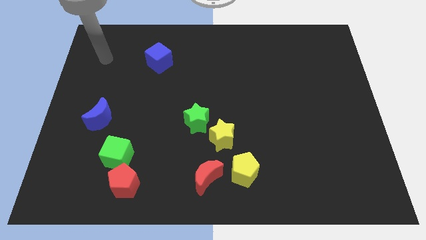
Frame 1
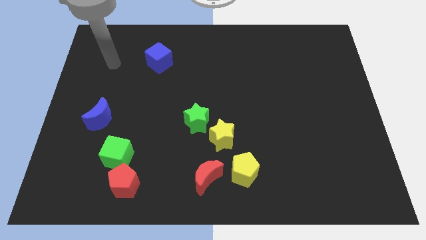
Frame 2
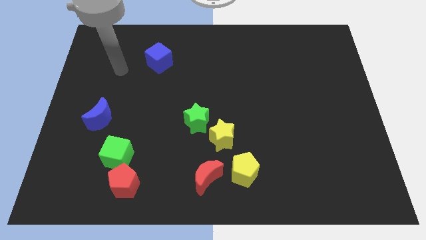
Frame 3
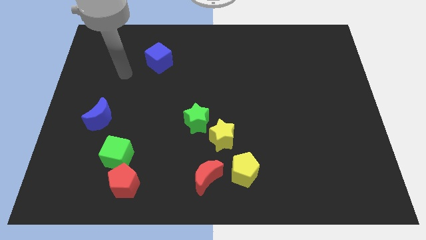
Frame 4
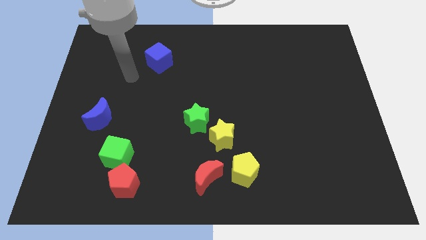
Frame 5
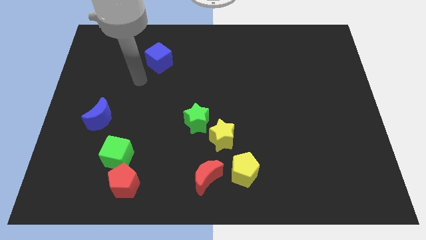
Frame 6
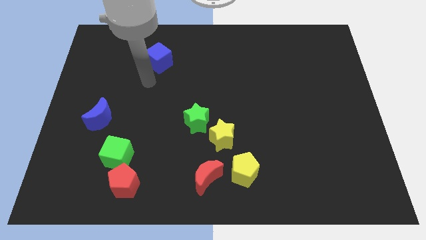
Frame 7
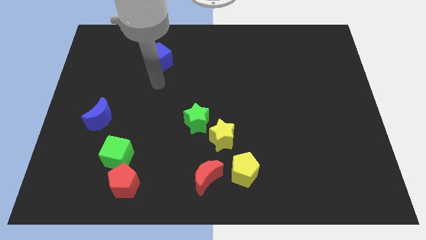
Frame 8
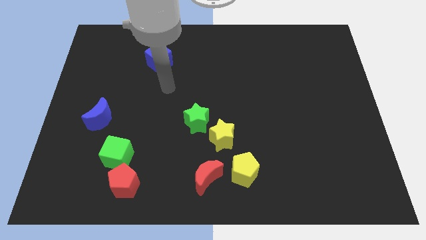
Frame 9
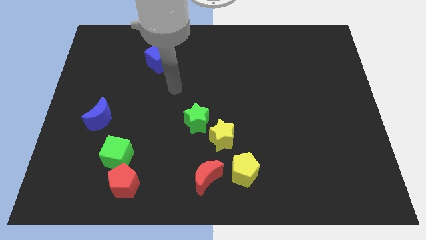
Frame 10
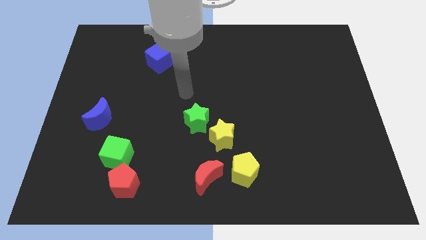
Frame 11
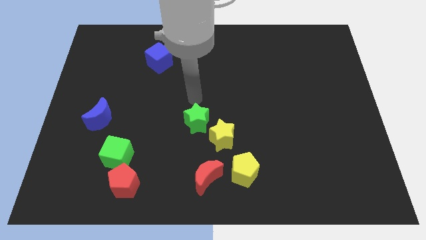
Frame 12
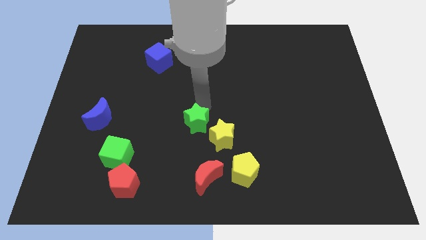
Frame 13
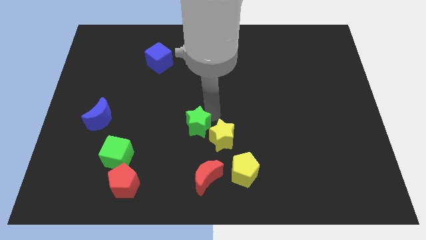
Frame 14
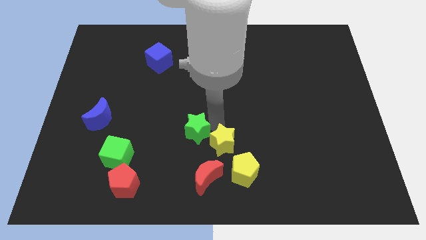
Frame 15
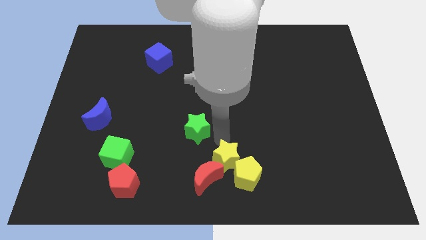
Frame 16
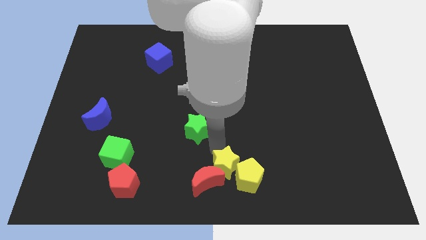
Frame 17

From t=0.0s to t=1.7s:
move the green star away from the yellow star

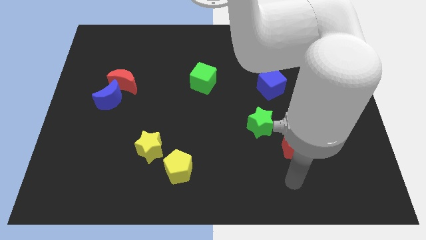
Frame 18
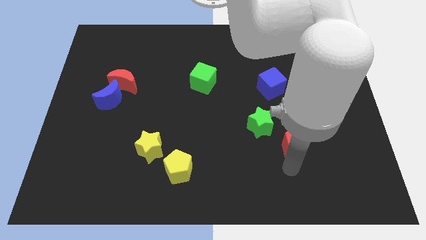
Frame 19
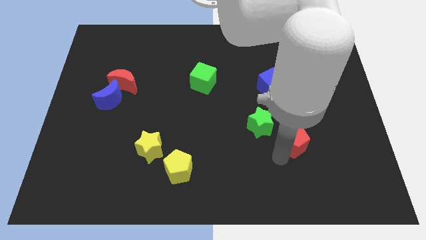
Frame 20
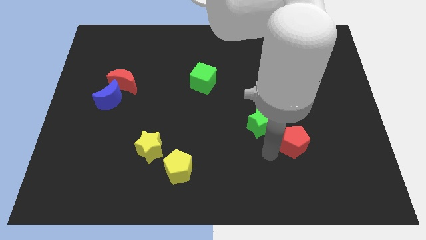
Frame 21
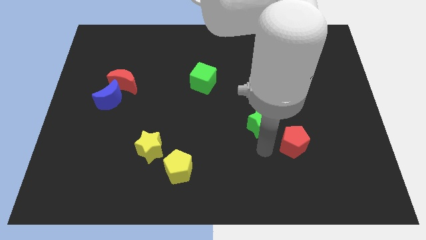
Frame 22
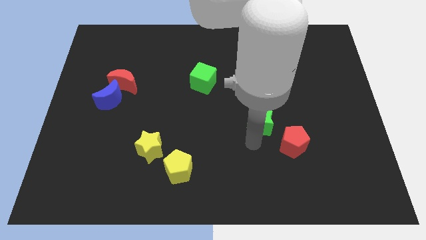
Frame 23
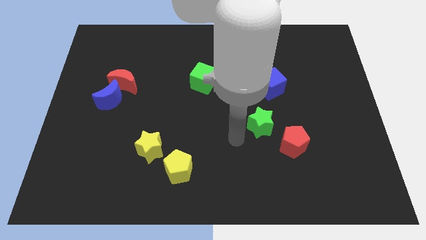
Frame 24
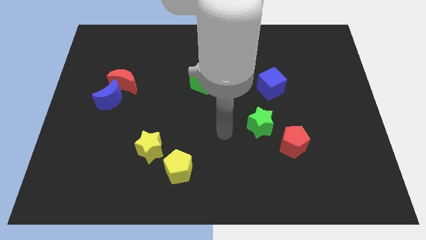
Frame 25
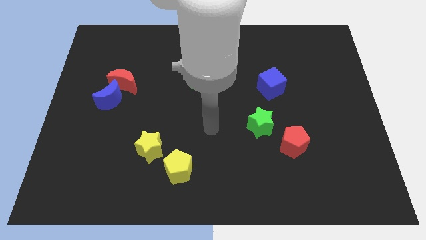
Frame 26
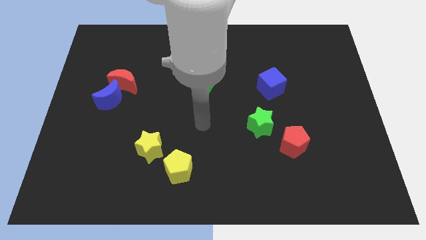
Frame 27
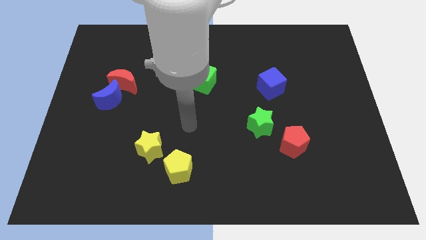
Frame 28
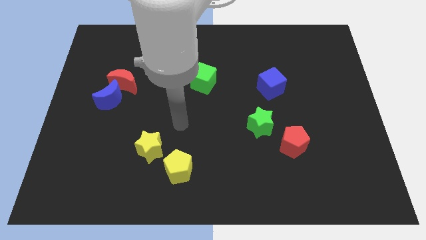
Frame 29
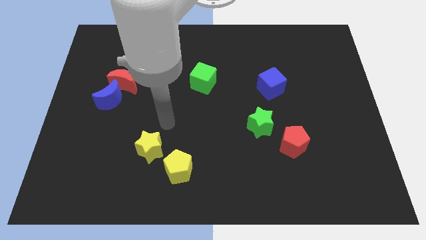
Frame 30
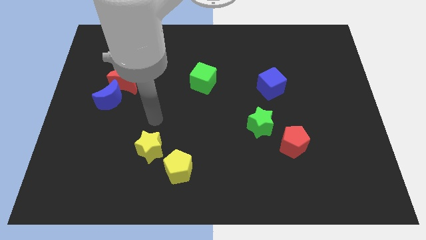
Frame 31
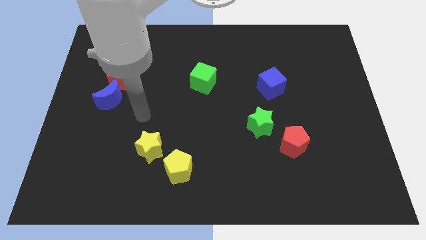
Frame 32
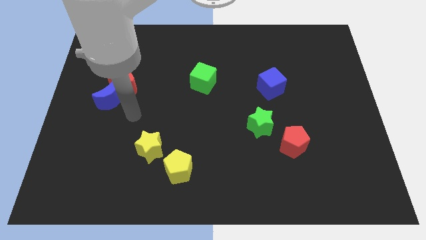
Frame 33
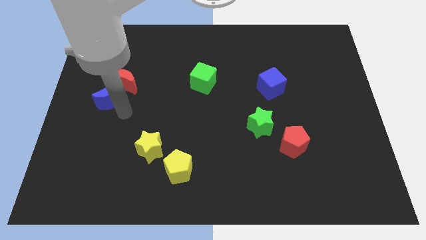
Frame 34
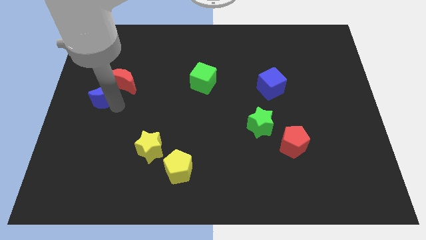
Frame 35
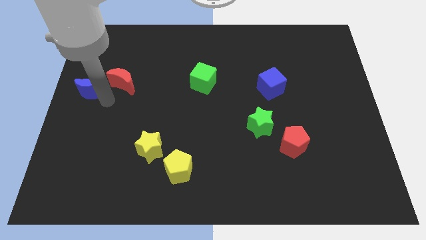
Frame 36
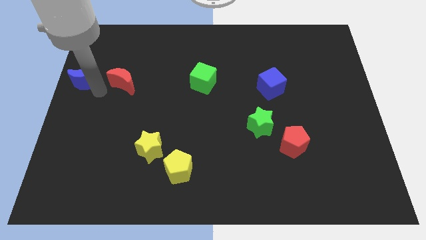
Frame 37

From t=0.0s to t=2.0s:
separate the red moon from the blue moon

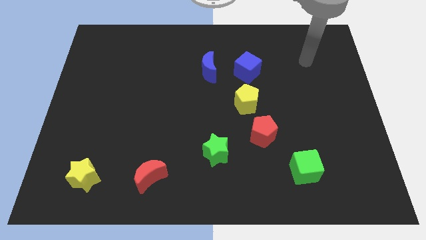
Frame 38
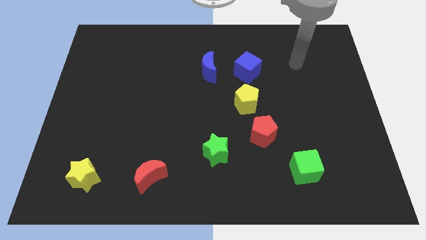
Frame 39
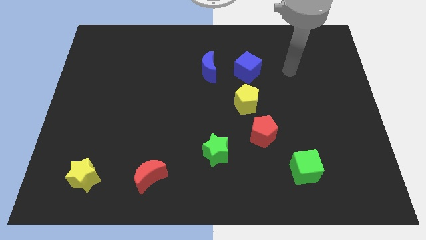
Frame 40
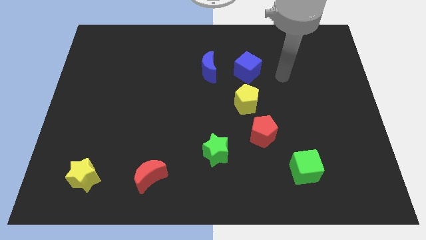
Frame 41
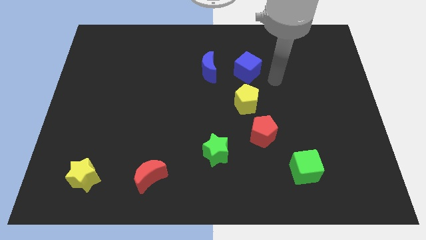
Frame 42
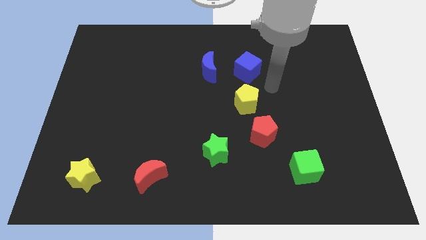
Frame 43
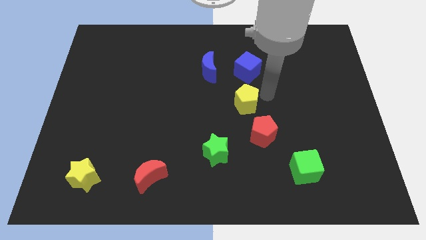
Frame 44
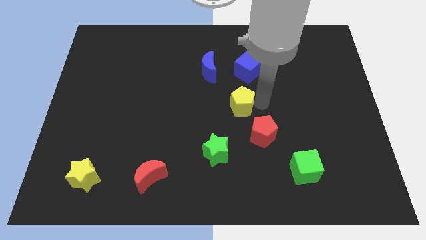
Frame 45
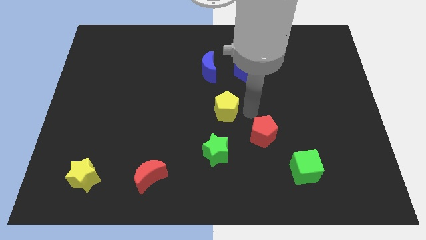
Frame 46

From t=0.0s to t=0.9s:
move the red pentagon away from the yellow pentagon

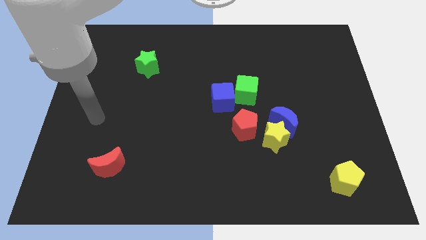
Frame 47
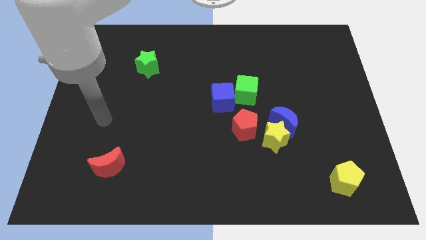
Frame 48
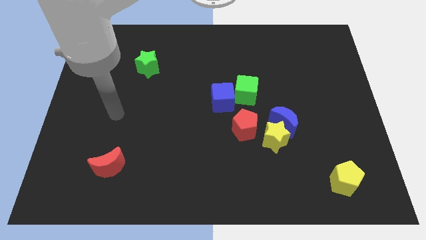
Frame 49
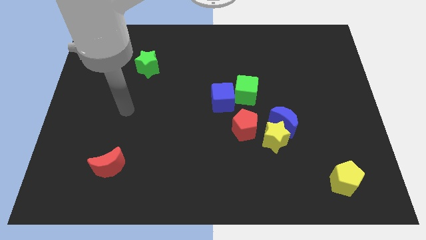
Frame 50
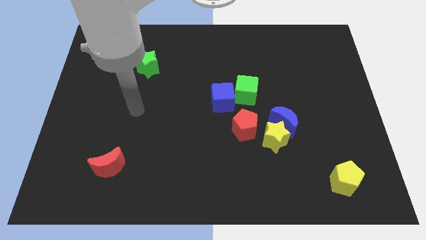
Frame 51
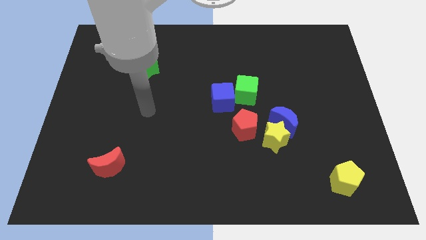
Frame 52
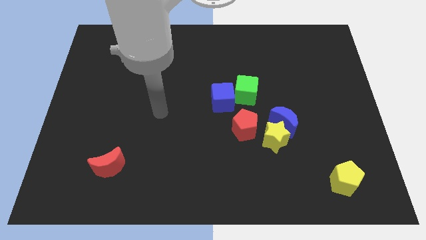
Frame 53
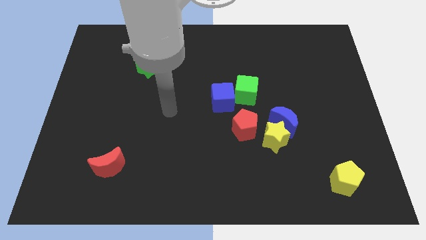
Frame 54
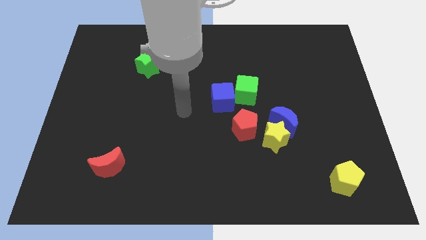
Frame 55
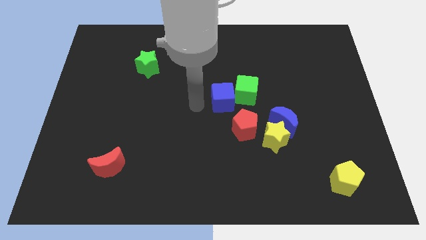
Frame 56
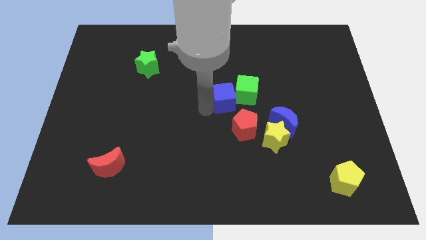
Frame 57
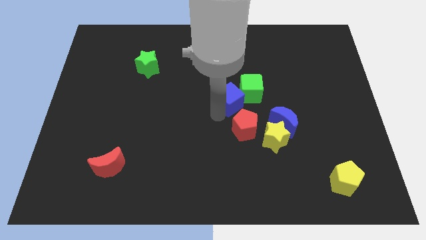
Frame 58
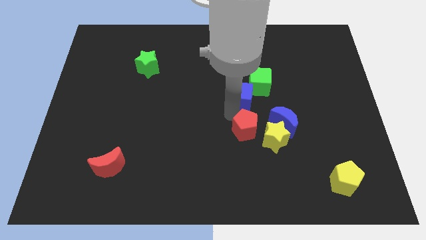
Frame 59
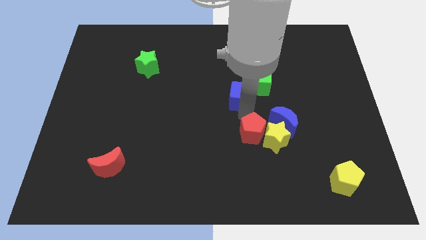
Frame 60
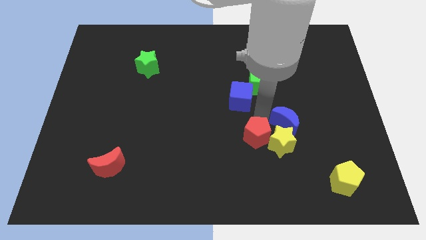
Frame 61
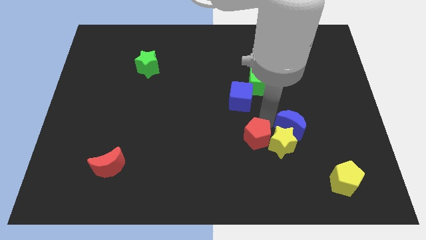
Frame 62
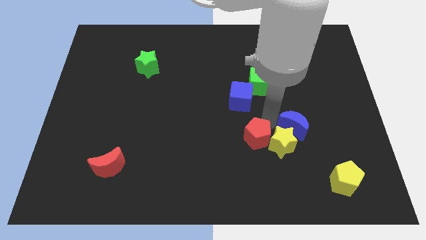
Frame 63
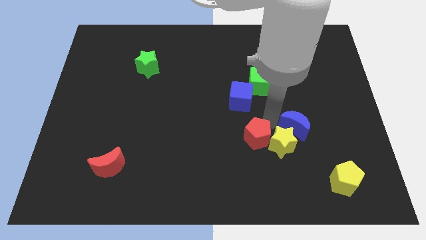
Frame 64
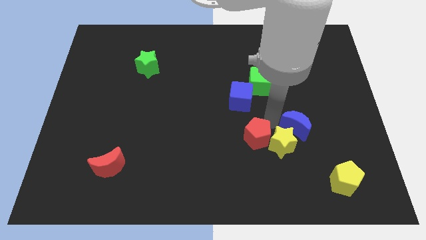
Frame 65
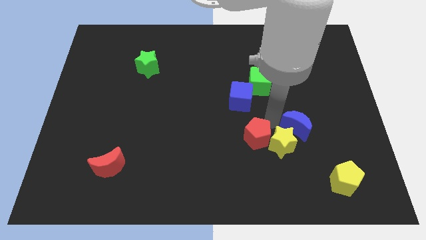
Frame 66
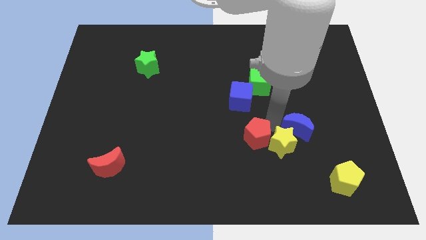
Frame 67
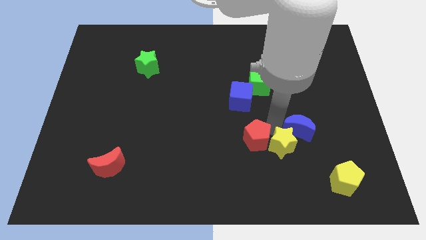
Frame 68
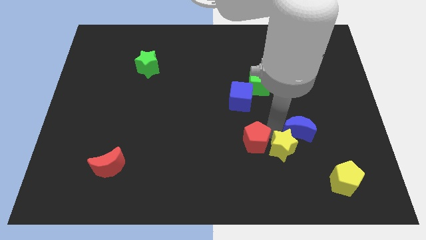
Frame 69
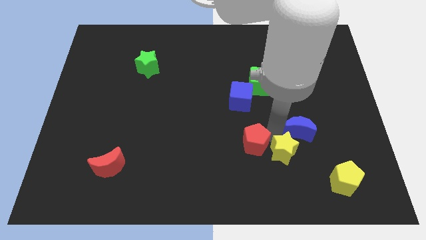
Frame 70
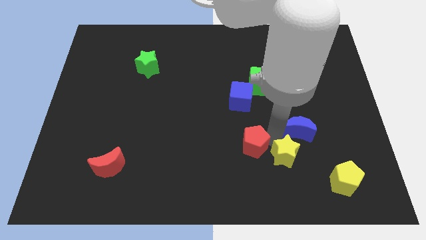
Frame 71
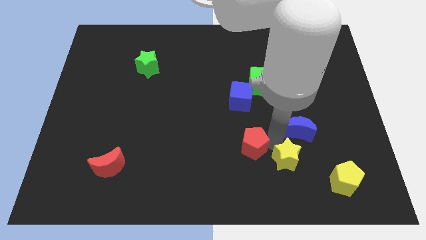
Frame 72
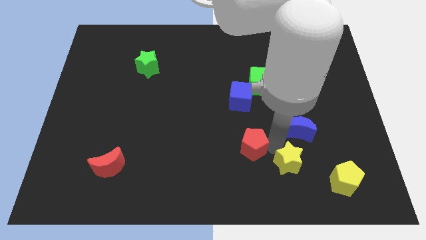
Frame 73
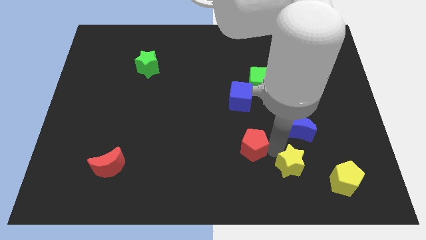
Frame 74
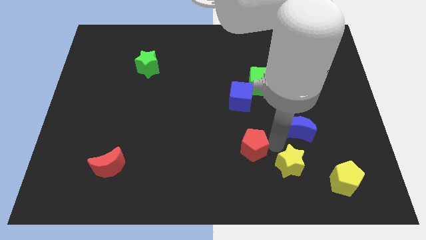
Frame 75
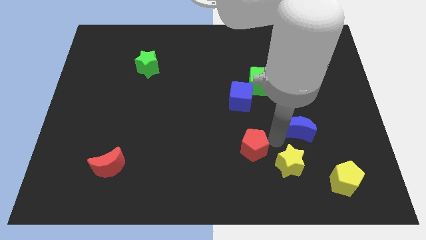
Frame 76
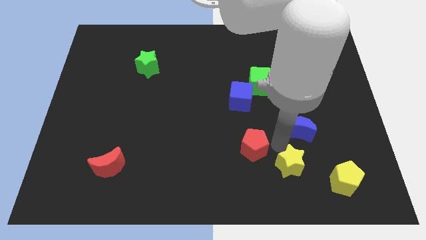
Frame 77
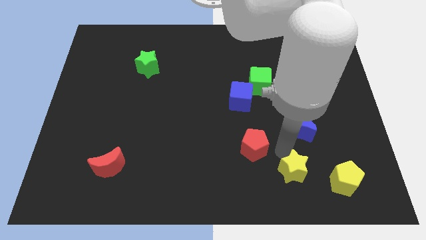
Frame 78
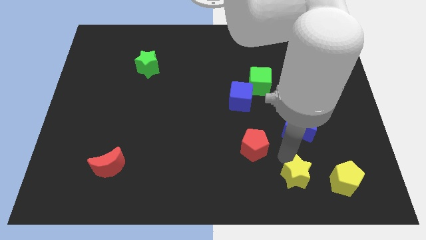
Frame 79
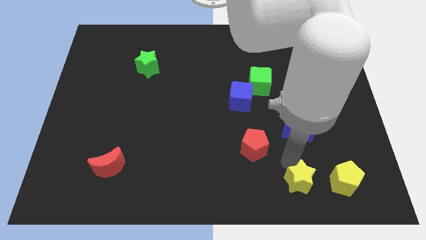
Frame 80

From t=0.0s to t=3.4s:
separate the yellow star from the blue moon and red pentagon

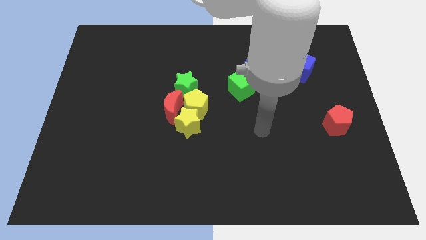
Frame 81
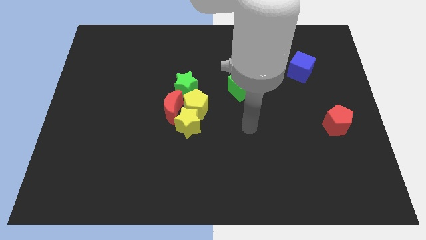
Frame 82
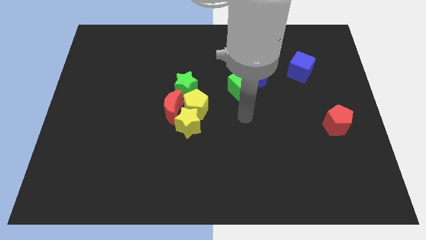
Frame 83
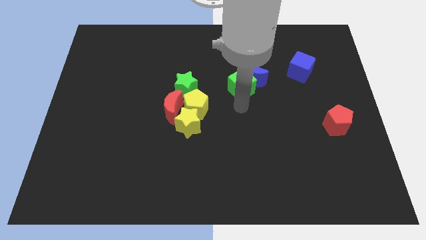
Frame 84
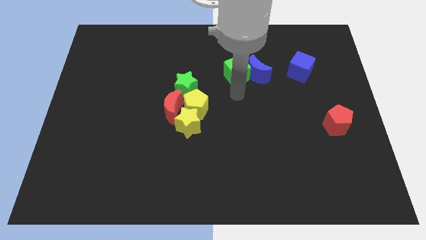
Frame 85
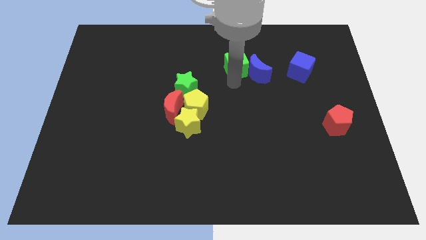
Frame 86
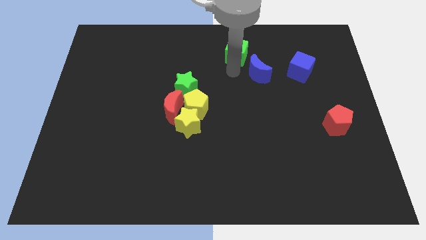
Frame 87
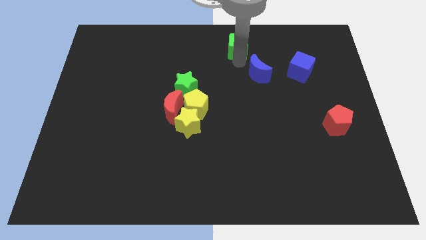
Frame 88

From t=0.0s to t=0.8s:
pull the blue moon apart from the green cube

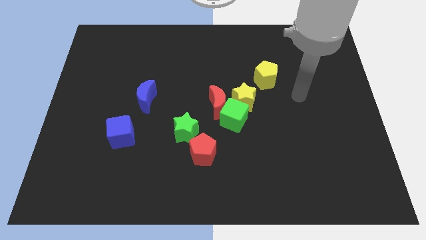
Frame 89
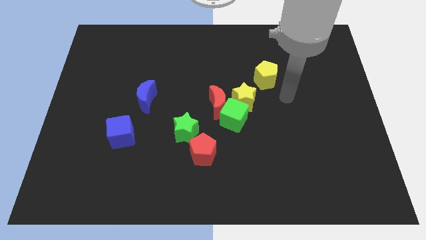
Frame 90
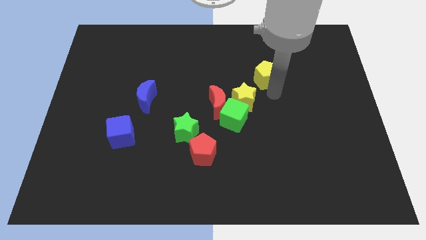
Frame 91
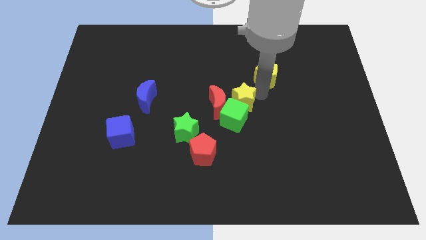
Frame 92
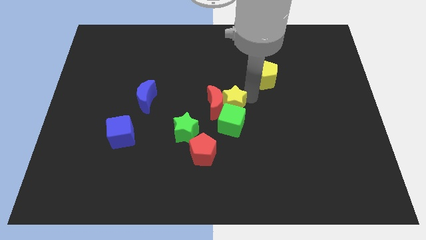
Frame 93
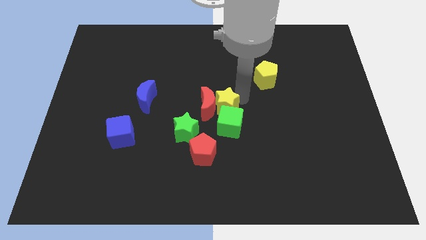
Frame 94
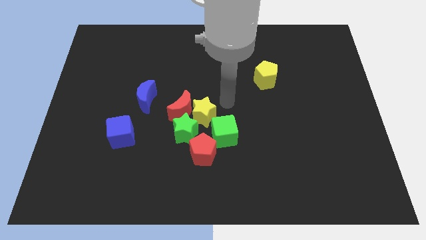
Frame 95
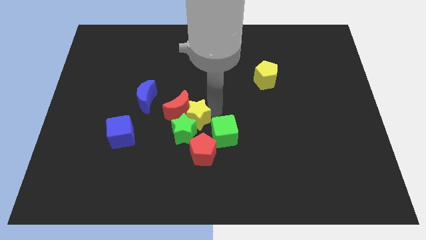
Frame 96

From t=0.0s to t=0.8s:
move the green cube away from the red moon and yellow star
